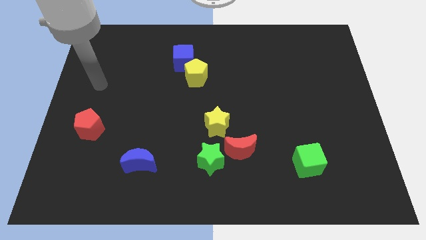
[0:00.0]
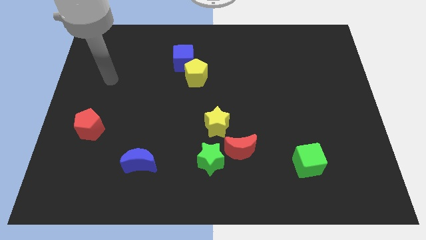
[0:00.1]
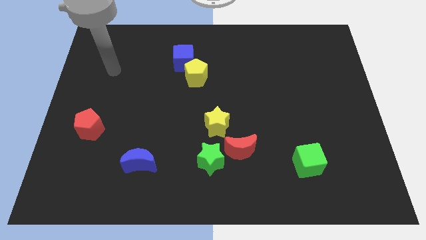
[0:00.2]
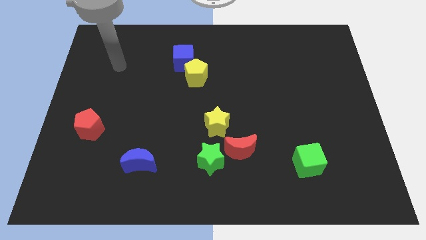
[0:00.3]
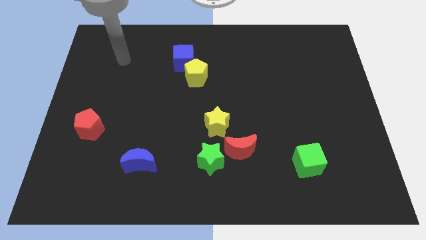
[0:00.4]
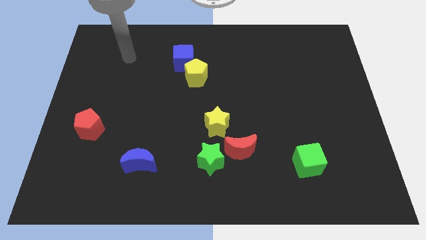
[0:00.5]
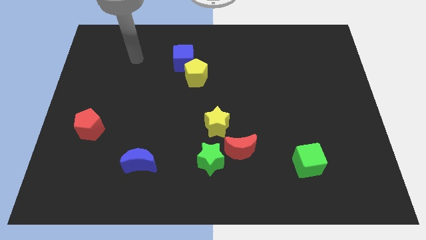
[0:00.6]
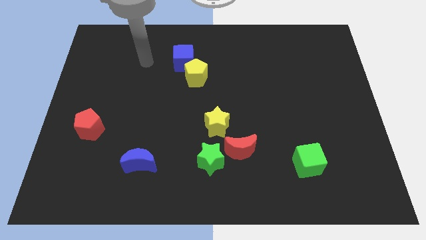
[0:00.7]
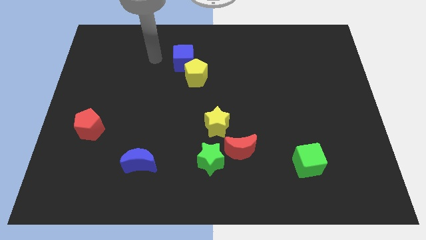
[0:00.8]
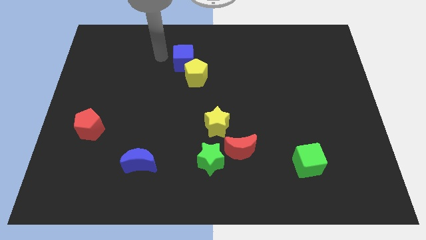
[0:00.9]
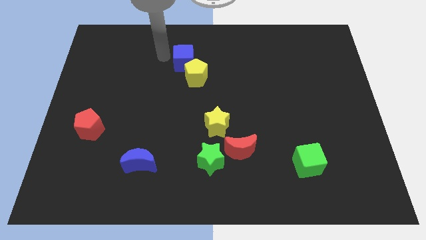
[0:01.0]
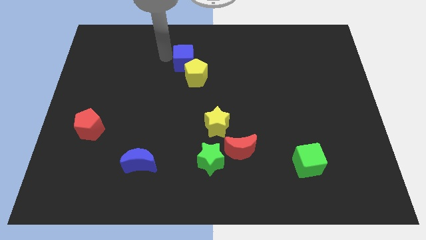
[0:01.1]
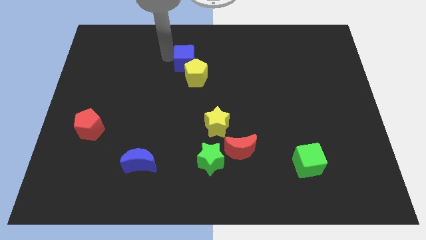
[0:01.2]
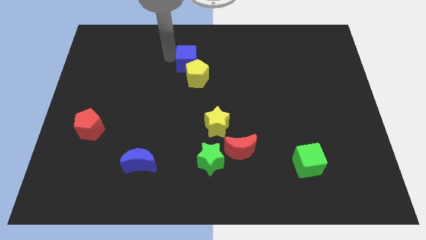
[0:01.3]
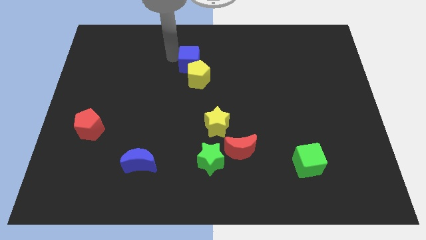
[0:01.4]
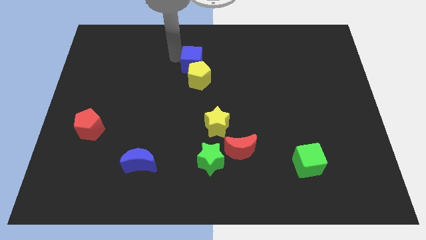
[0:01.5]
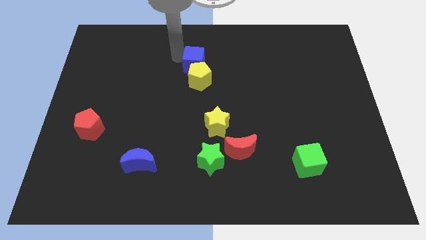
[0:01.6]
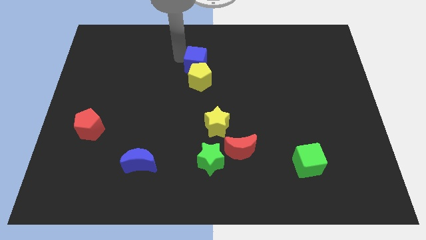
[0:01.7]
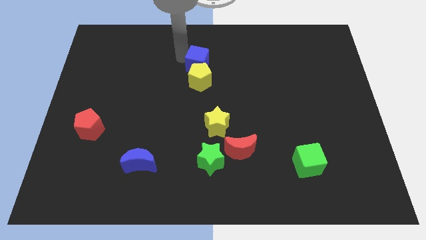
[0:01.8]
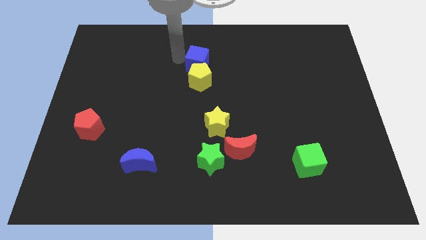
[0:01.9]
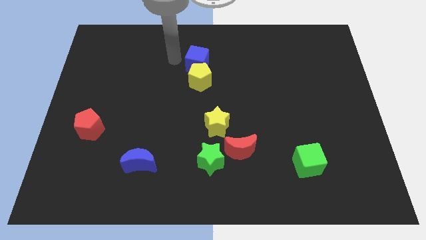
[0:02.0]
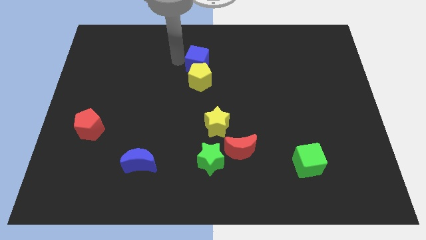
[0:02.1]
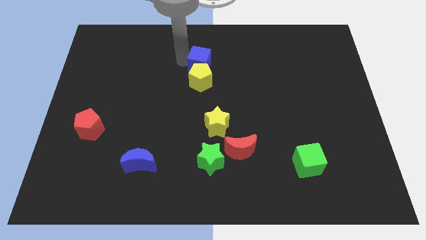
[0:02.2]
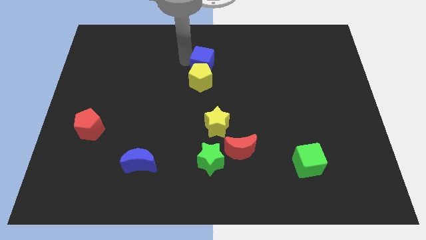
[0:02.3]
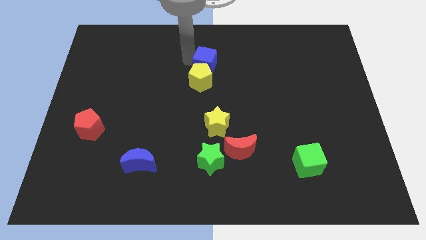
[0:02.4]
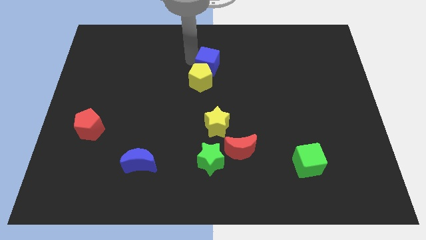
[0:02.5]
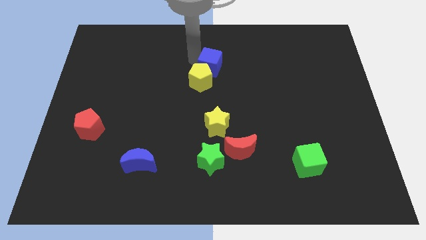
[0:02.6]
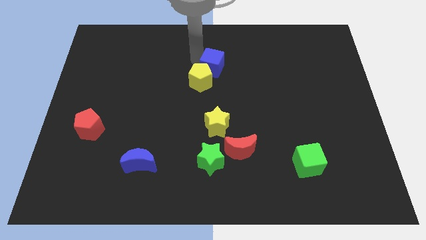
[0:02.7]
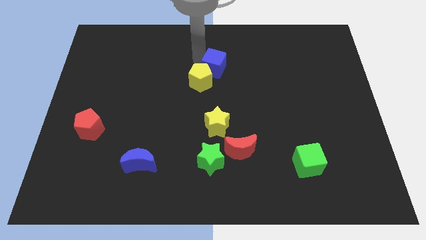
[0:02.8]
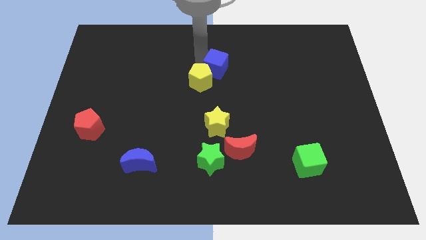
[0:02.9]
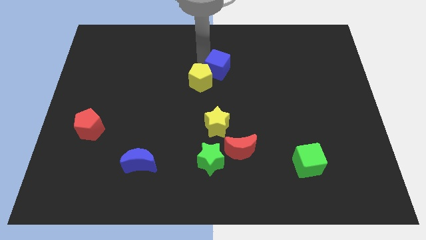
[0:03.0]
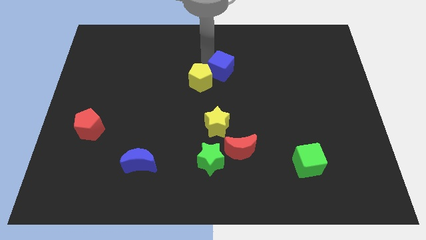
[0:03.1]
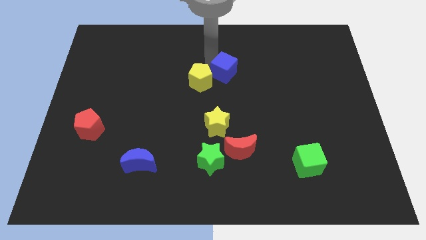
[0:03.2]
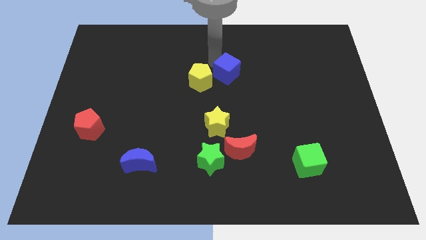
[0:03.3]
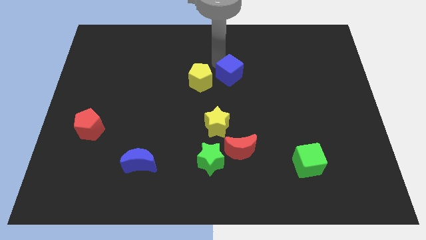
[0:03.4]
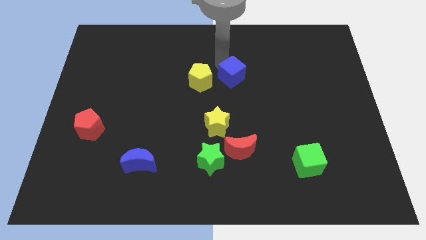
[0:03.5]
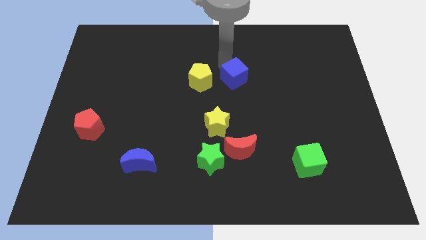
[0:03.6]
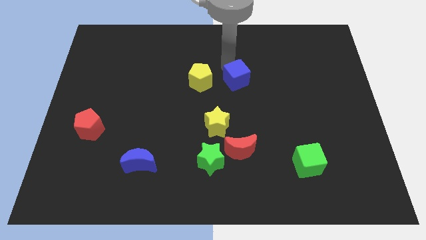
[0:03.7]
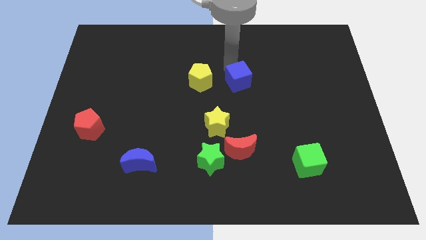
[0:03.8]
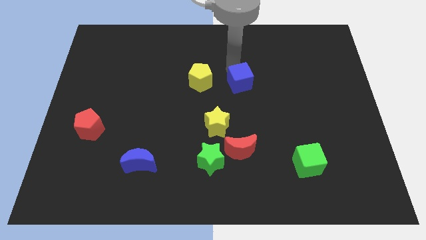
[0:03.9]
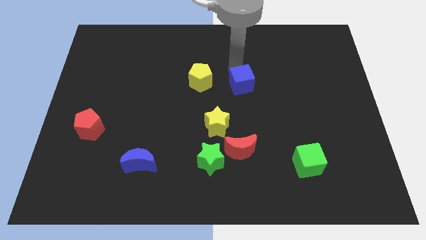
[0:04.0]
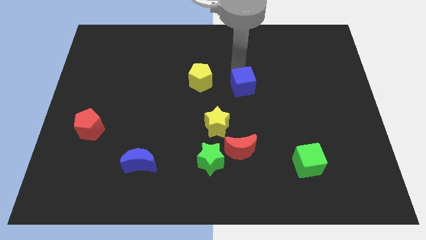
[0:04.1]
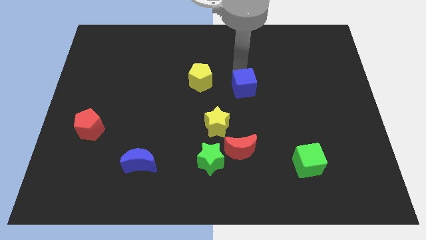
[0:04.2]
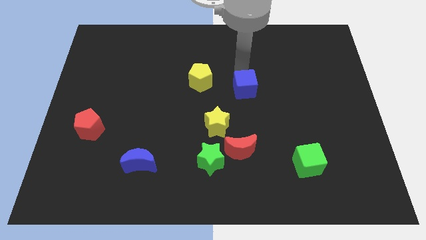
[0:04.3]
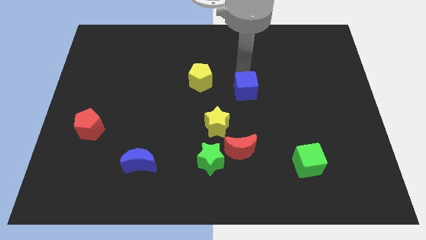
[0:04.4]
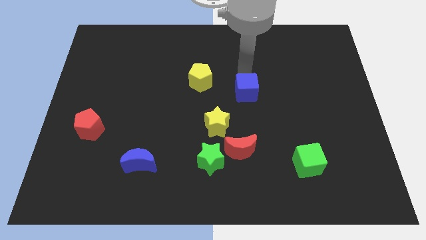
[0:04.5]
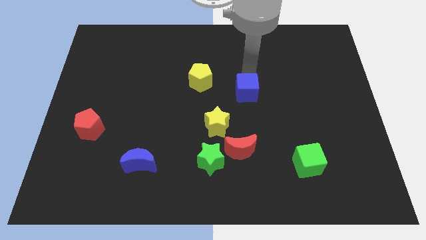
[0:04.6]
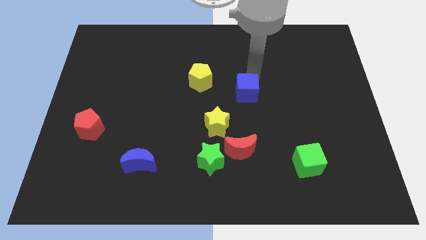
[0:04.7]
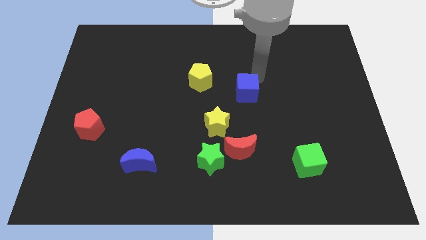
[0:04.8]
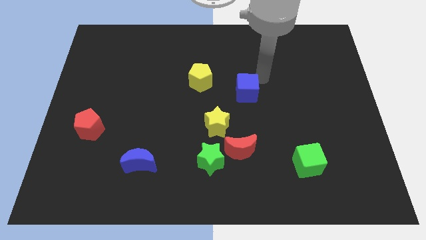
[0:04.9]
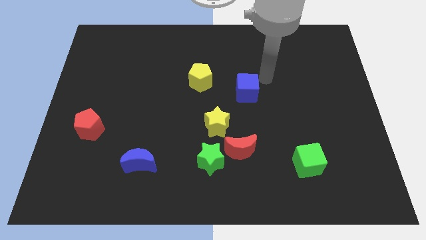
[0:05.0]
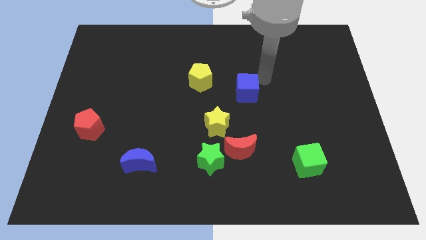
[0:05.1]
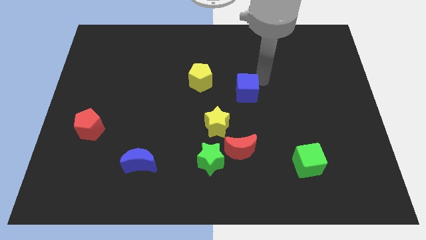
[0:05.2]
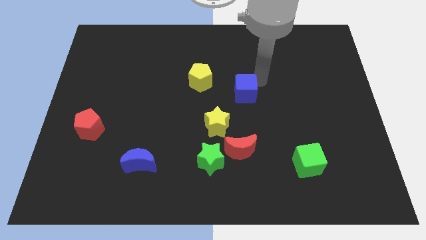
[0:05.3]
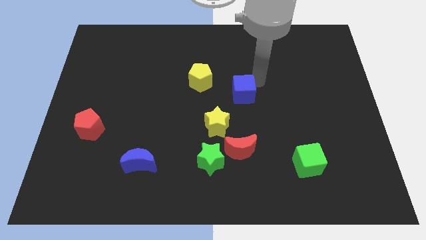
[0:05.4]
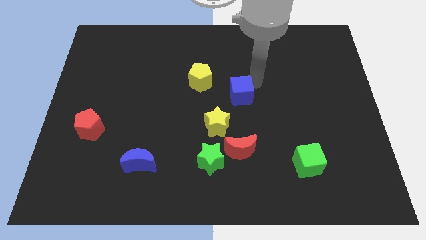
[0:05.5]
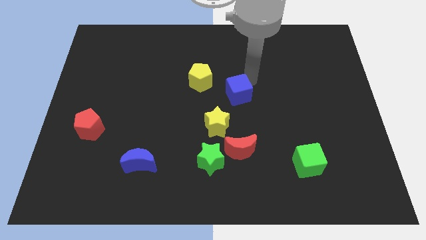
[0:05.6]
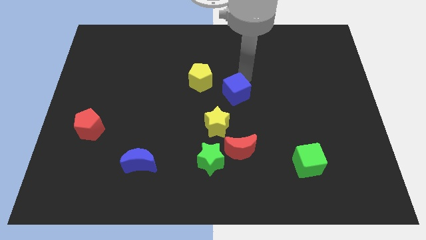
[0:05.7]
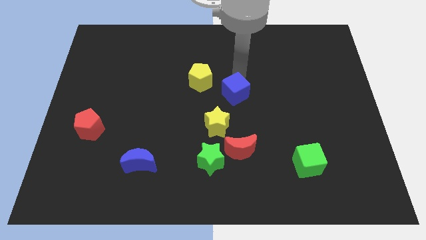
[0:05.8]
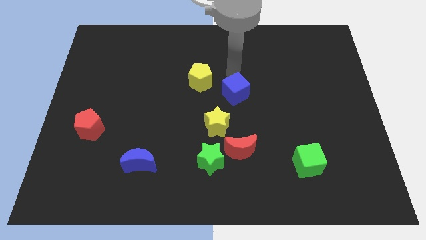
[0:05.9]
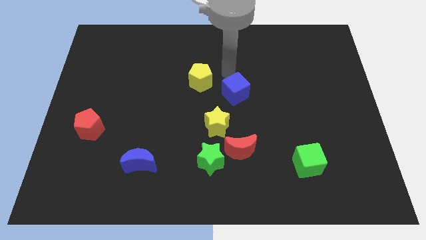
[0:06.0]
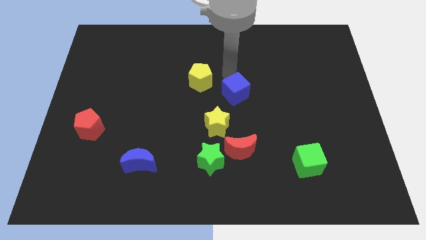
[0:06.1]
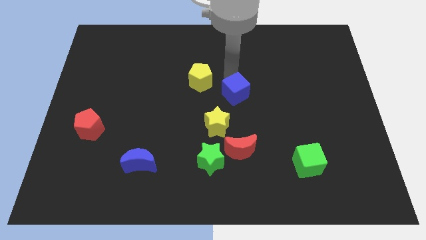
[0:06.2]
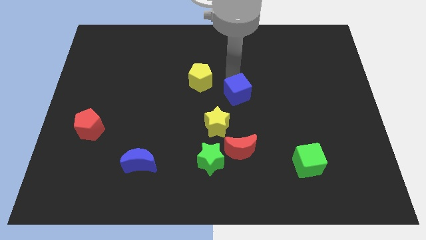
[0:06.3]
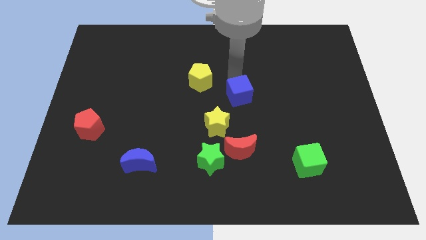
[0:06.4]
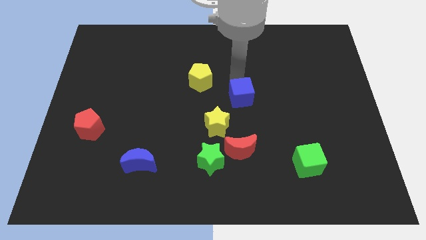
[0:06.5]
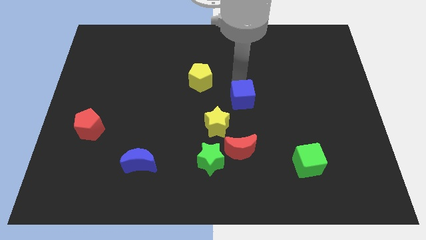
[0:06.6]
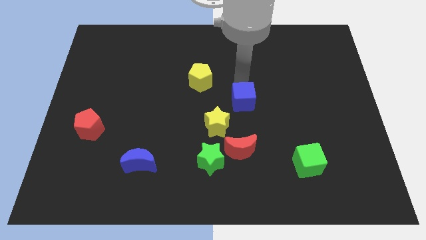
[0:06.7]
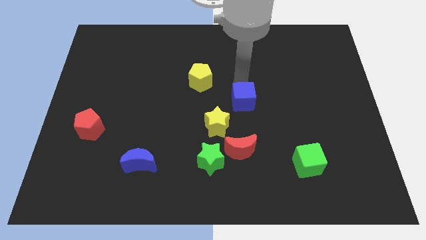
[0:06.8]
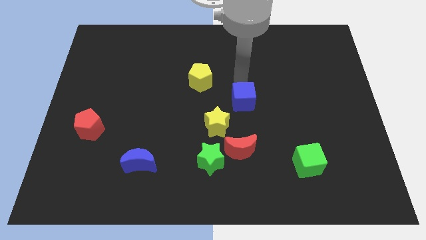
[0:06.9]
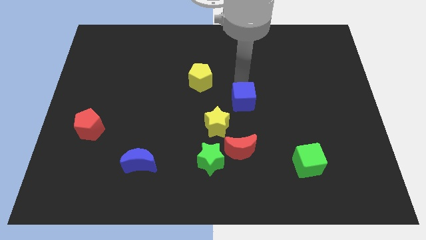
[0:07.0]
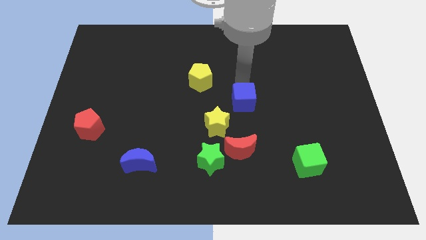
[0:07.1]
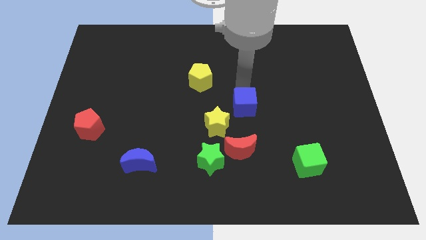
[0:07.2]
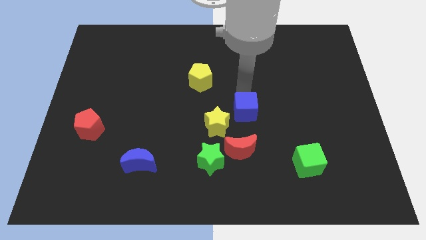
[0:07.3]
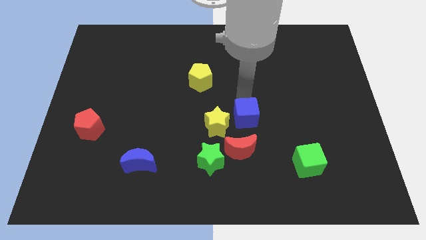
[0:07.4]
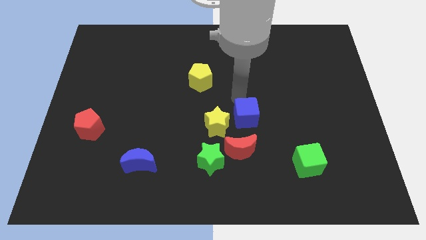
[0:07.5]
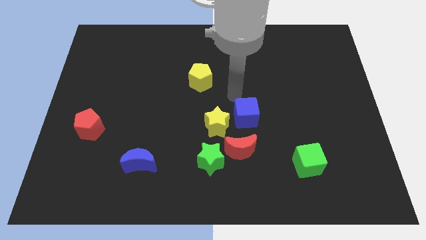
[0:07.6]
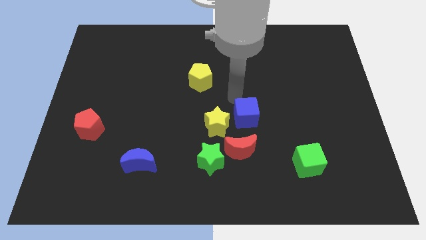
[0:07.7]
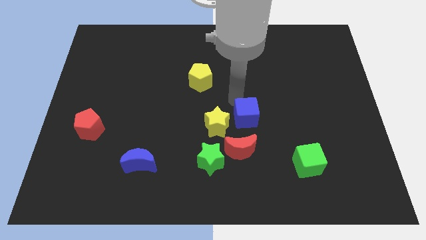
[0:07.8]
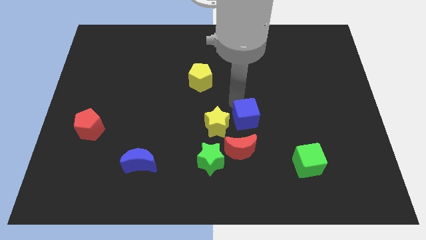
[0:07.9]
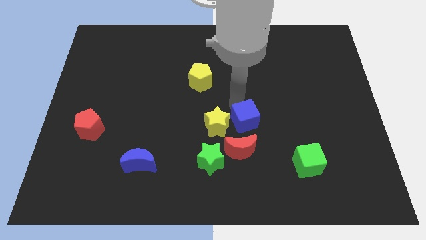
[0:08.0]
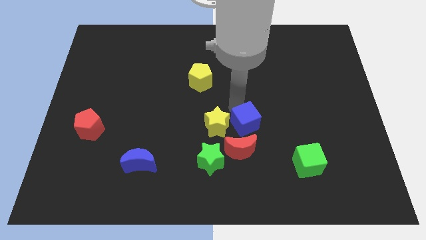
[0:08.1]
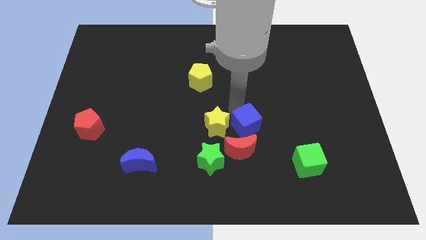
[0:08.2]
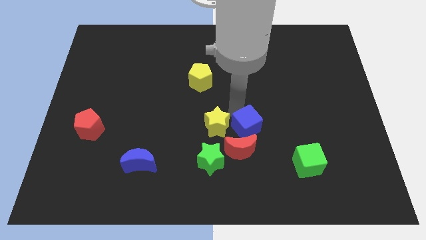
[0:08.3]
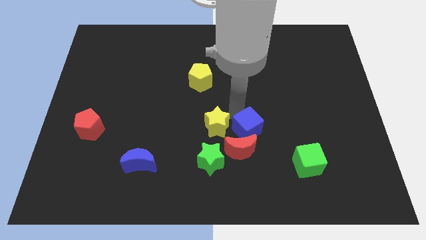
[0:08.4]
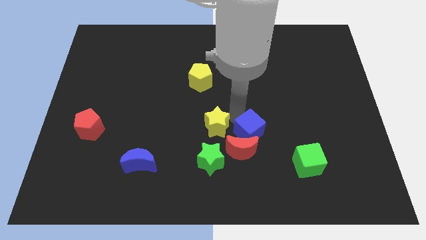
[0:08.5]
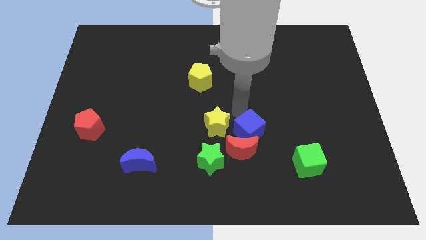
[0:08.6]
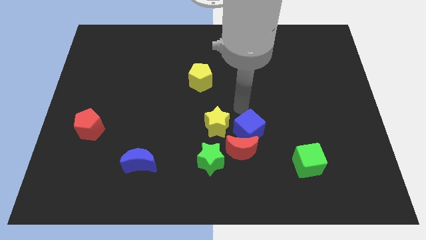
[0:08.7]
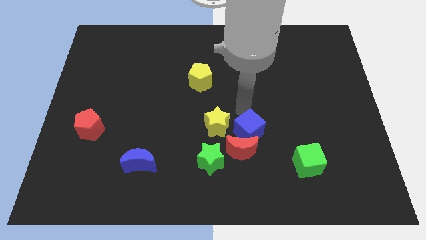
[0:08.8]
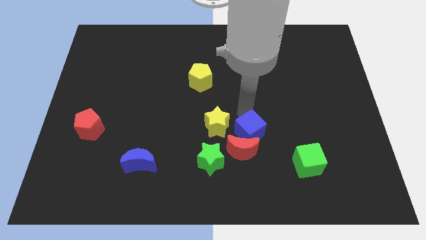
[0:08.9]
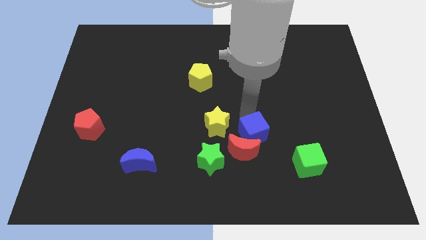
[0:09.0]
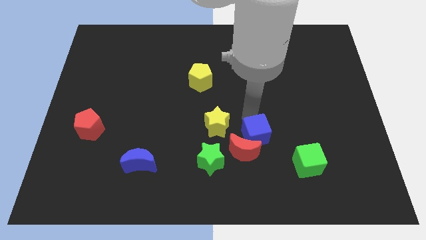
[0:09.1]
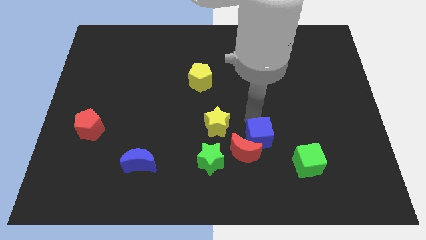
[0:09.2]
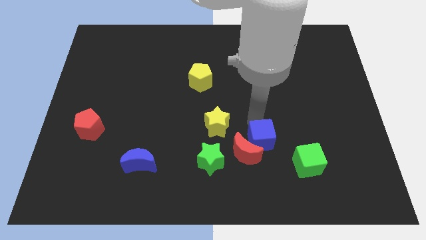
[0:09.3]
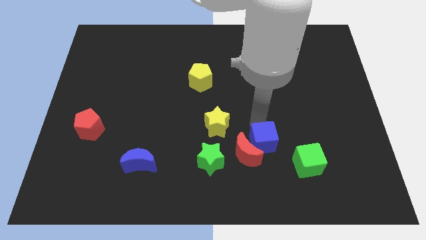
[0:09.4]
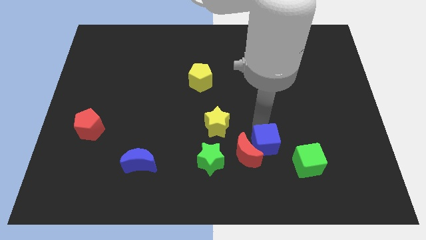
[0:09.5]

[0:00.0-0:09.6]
move the blue cube to the right side of the green star
